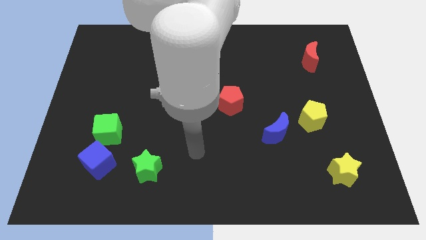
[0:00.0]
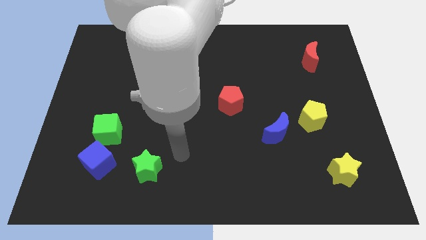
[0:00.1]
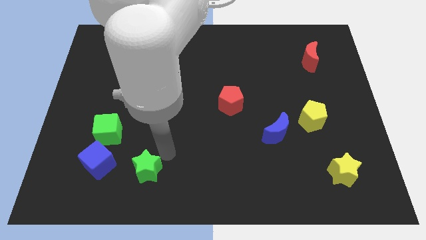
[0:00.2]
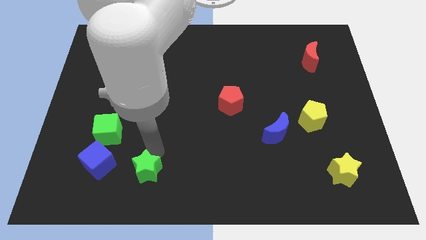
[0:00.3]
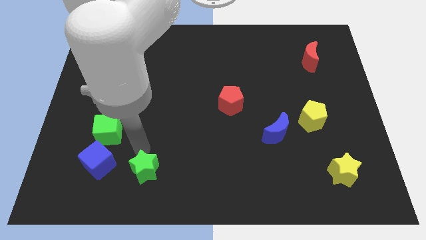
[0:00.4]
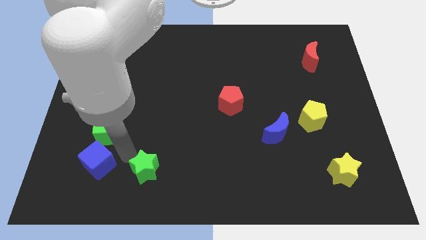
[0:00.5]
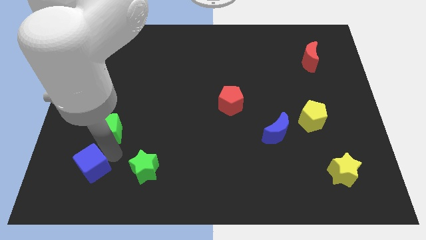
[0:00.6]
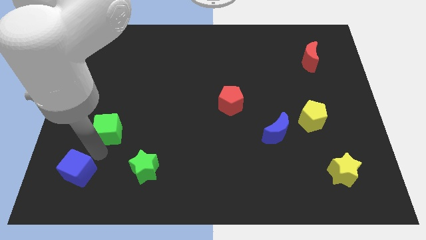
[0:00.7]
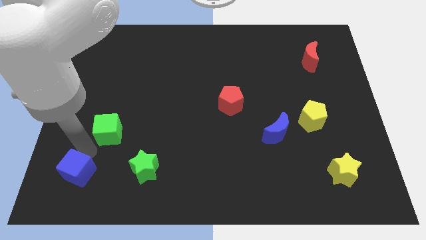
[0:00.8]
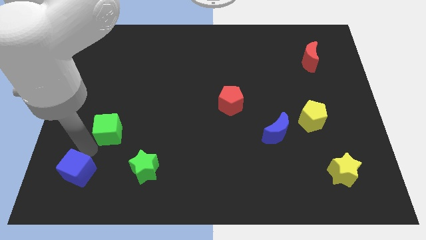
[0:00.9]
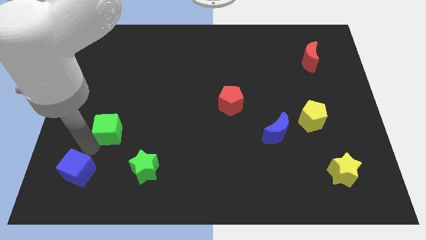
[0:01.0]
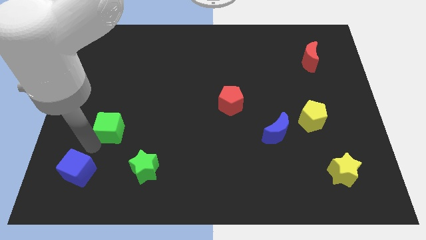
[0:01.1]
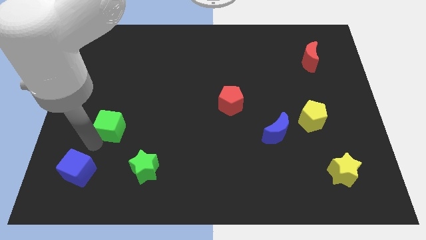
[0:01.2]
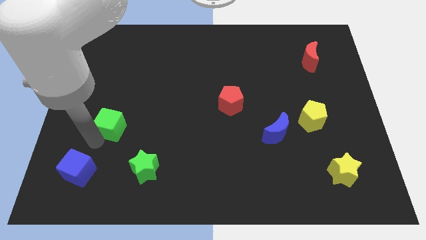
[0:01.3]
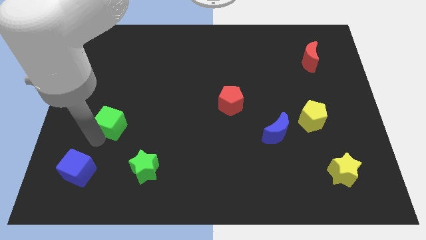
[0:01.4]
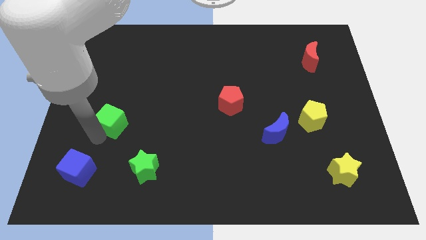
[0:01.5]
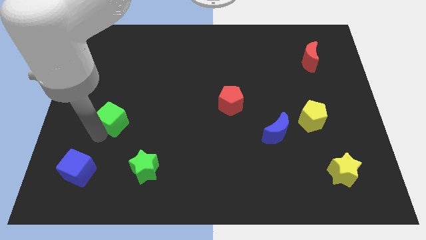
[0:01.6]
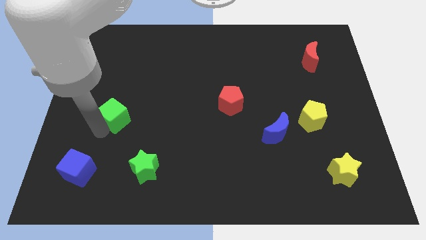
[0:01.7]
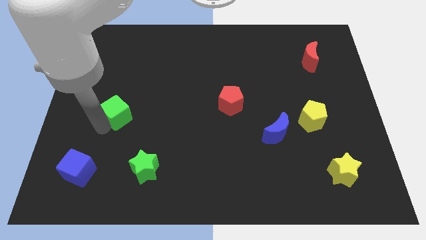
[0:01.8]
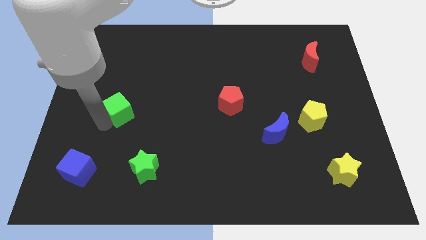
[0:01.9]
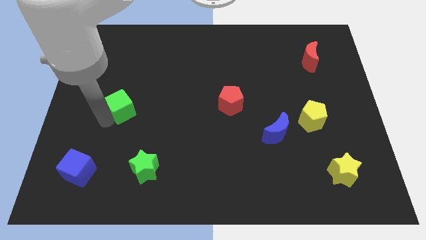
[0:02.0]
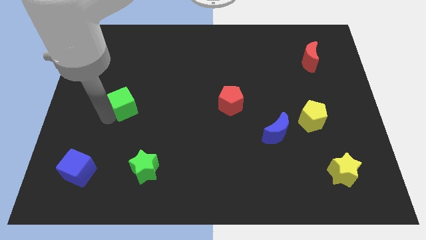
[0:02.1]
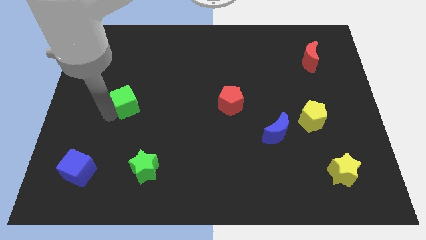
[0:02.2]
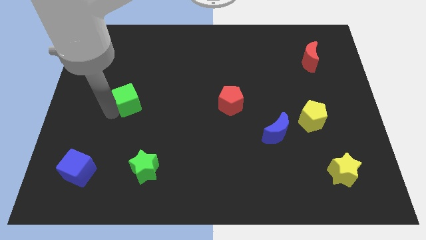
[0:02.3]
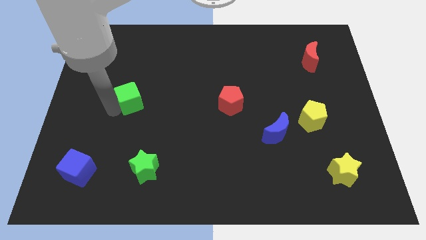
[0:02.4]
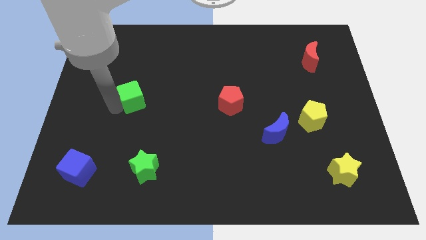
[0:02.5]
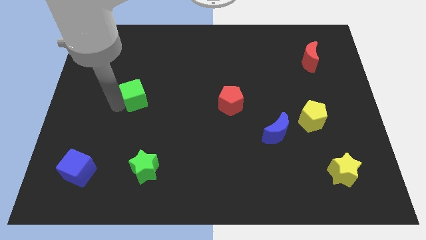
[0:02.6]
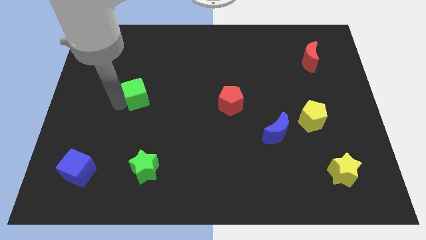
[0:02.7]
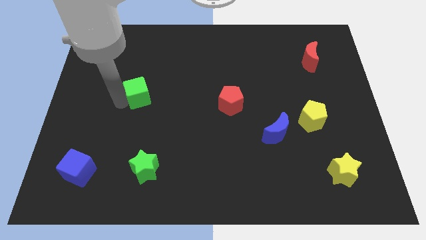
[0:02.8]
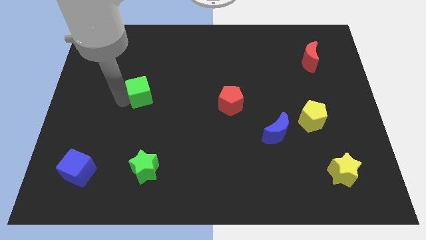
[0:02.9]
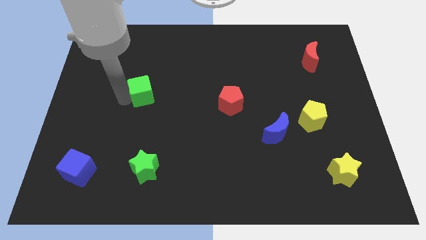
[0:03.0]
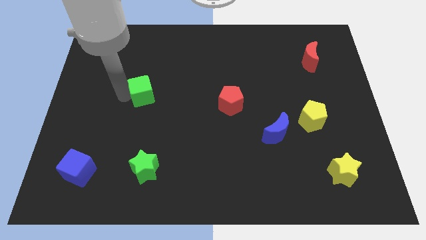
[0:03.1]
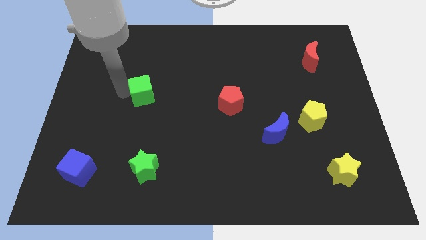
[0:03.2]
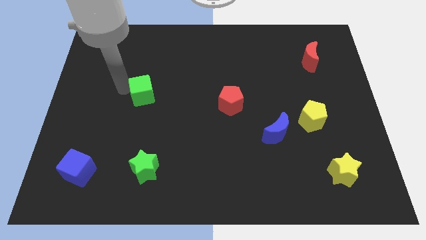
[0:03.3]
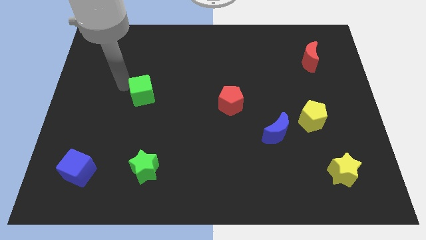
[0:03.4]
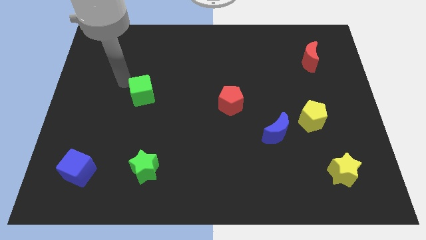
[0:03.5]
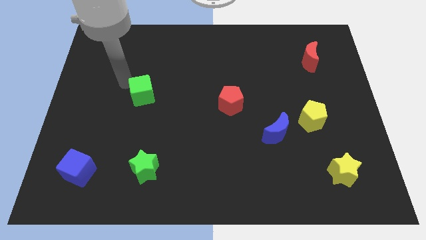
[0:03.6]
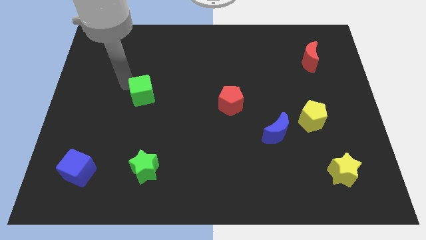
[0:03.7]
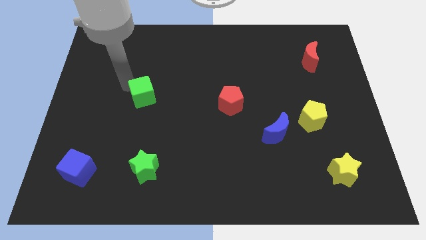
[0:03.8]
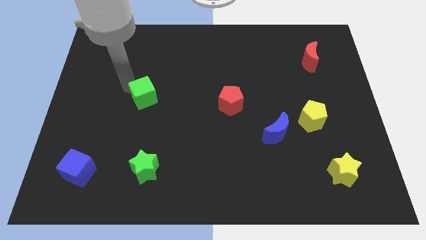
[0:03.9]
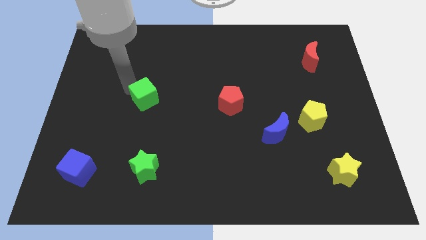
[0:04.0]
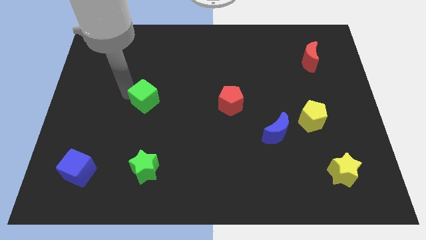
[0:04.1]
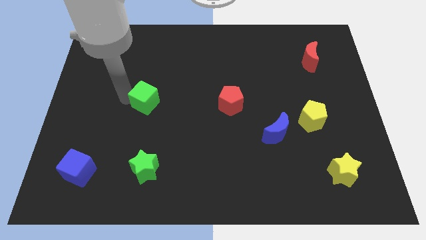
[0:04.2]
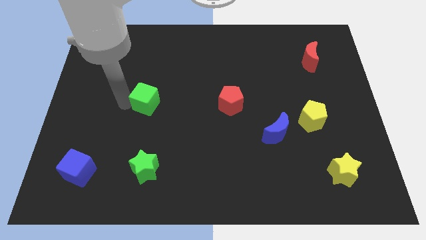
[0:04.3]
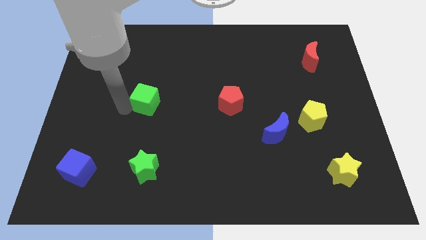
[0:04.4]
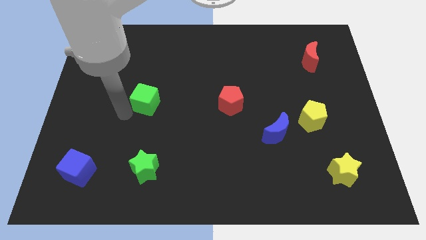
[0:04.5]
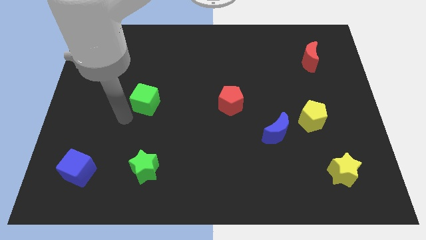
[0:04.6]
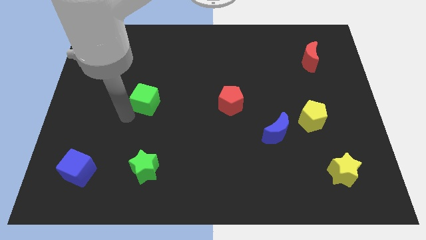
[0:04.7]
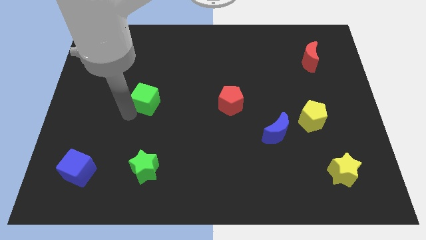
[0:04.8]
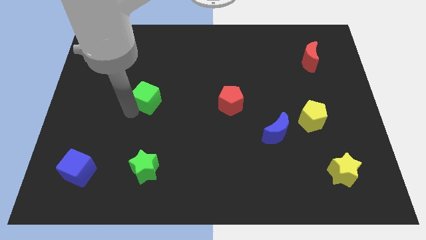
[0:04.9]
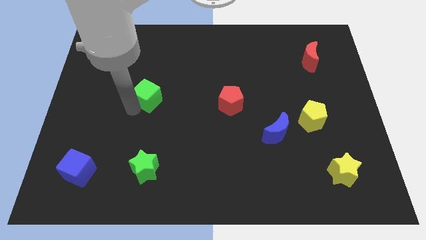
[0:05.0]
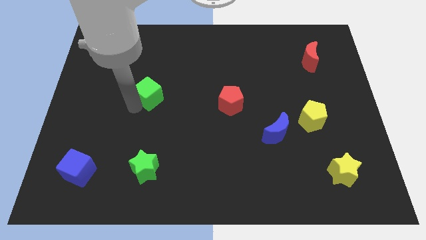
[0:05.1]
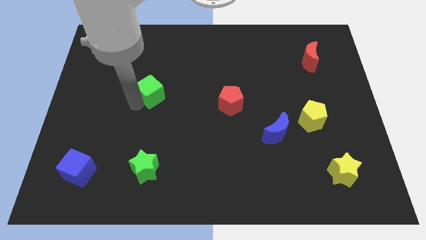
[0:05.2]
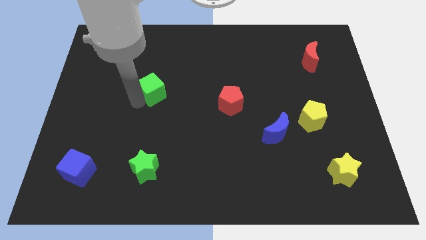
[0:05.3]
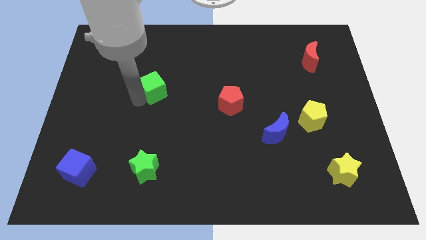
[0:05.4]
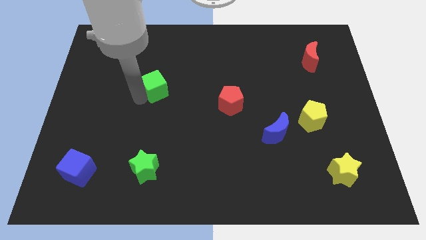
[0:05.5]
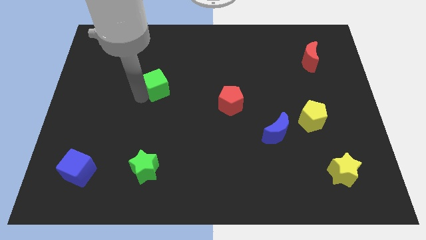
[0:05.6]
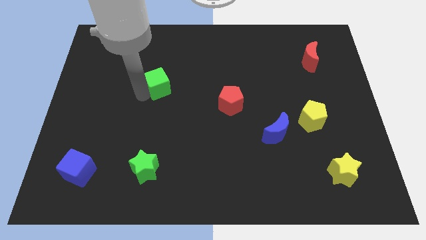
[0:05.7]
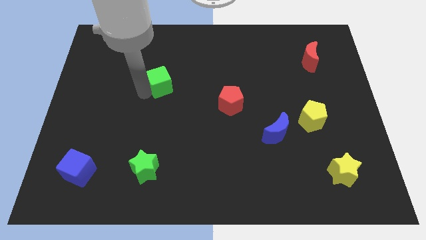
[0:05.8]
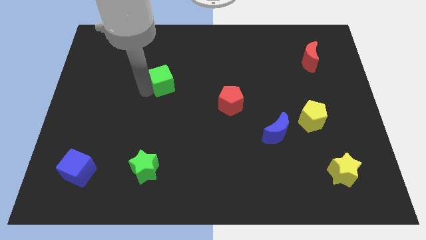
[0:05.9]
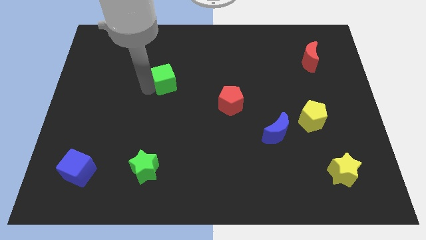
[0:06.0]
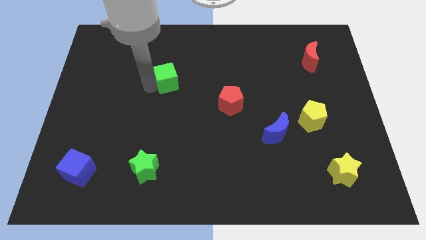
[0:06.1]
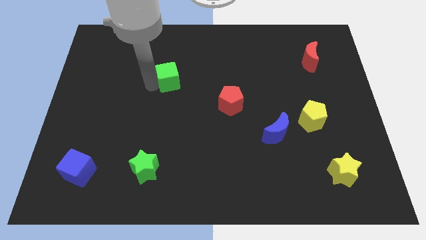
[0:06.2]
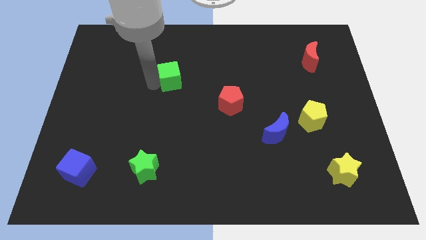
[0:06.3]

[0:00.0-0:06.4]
push the green cube up and to the right diagonally

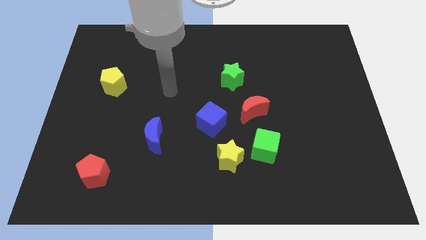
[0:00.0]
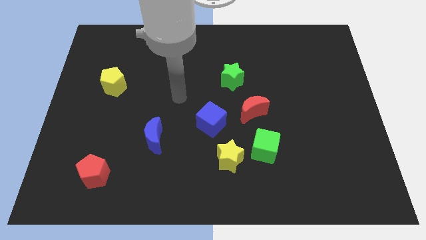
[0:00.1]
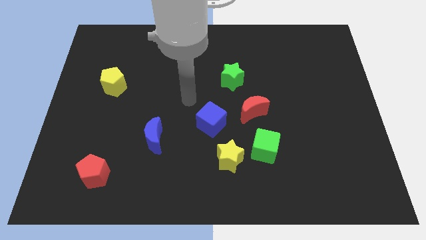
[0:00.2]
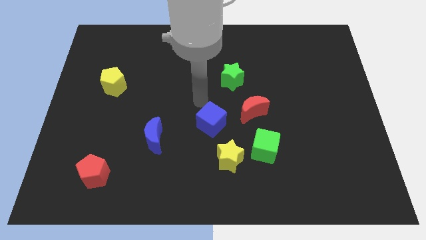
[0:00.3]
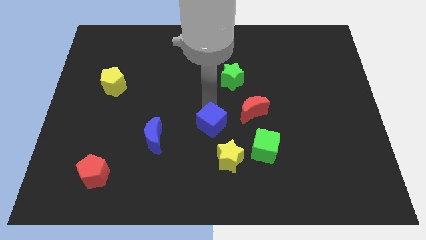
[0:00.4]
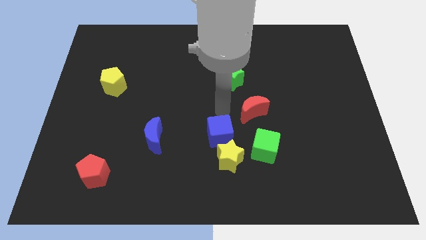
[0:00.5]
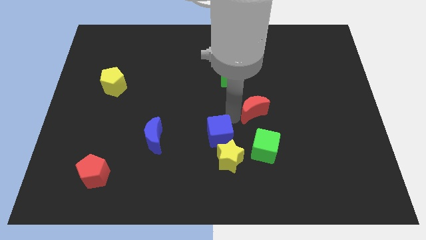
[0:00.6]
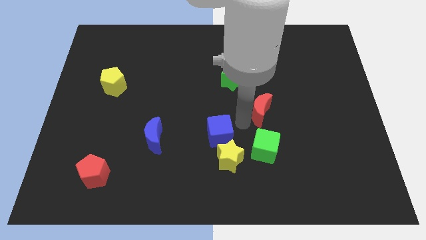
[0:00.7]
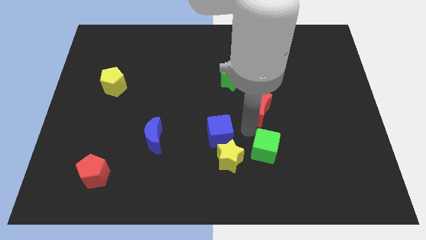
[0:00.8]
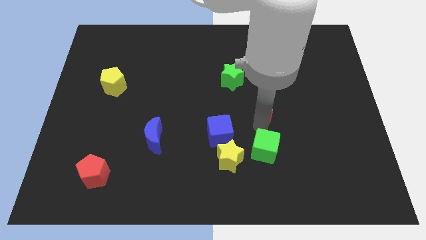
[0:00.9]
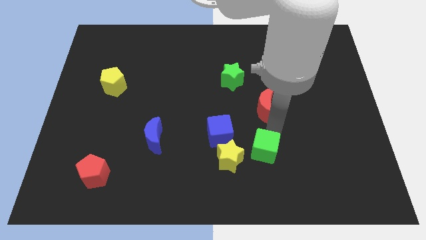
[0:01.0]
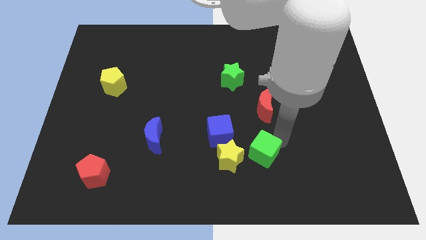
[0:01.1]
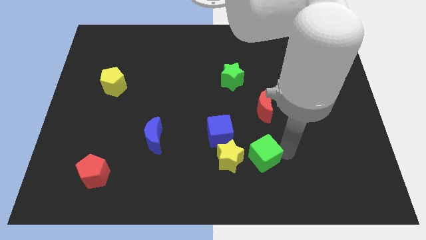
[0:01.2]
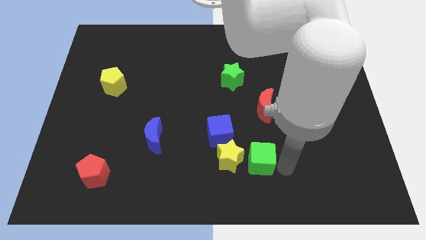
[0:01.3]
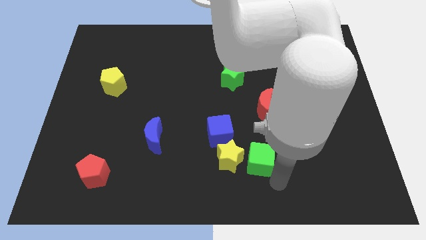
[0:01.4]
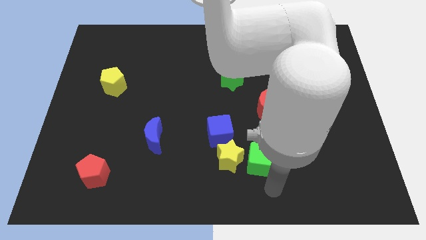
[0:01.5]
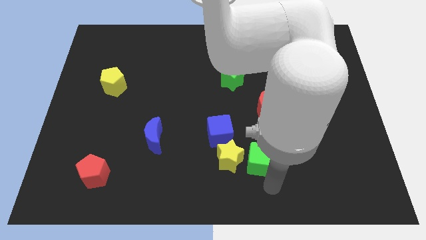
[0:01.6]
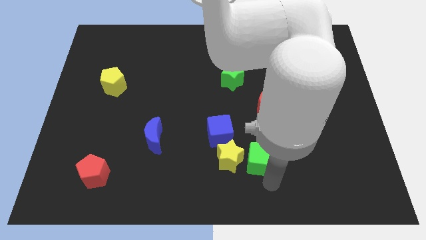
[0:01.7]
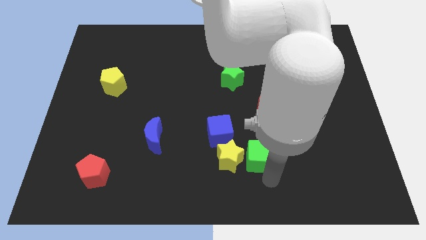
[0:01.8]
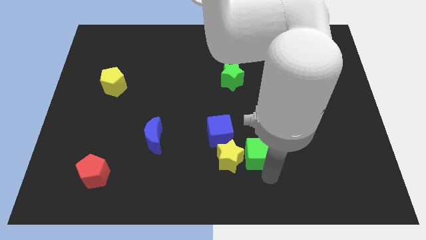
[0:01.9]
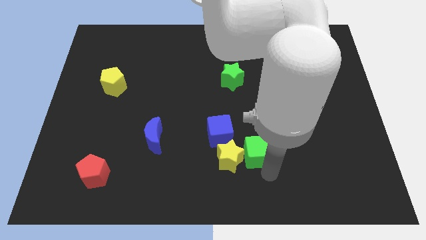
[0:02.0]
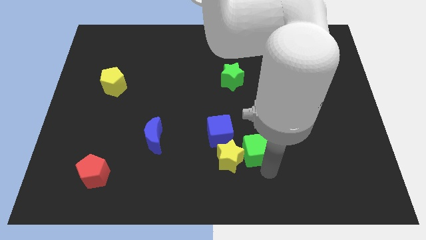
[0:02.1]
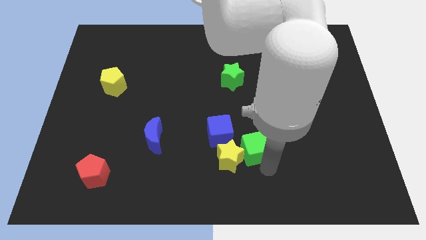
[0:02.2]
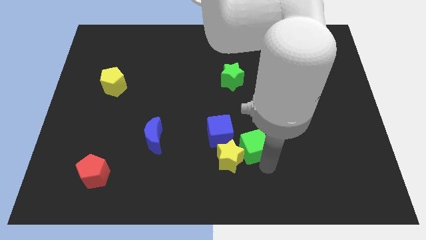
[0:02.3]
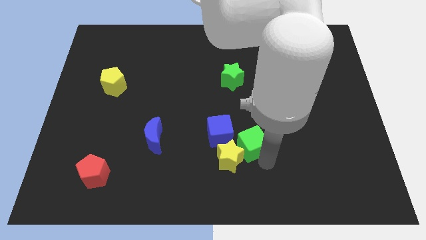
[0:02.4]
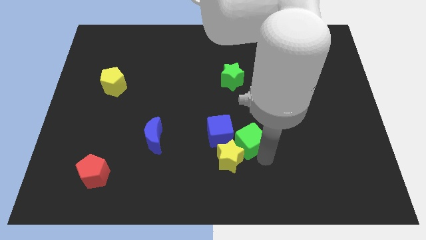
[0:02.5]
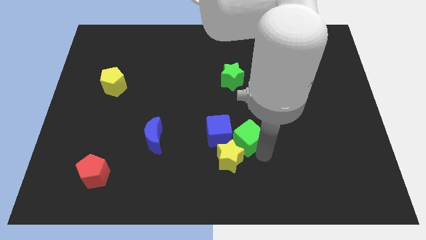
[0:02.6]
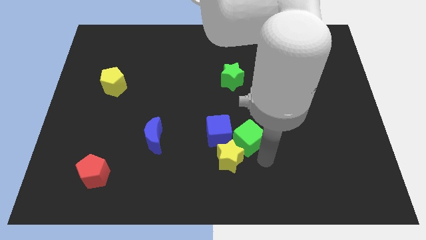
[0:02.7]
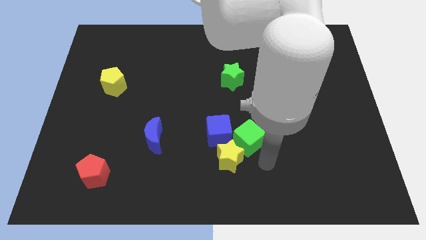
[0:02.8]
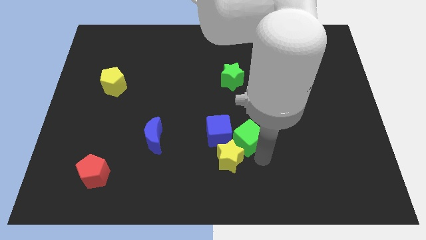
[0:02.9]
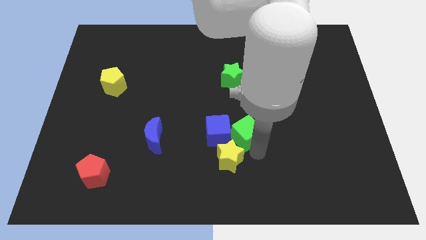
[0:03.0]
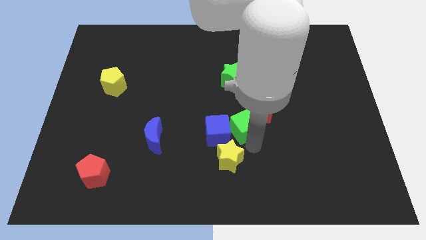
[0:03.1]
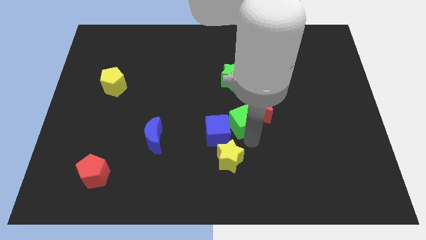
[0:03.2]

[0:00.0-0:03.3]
slide the green cube somewhat diagonally up and left
